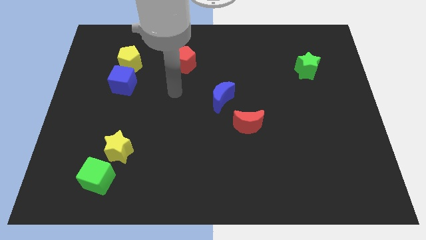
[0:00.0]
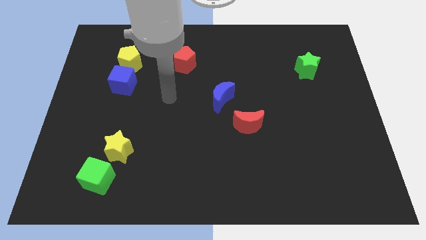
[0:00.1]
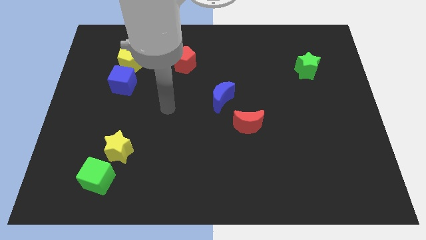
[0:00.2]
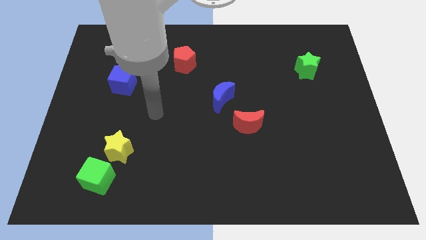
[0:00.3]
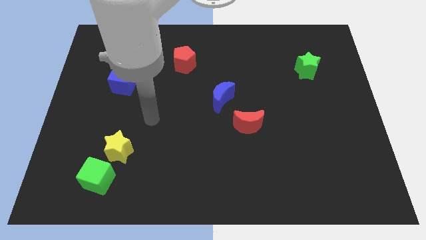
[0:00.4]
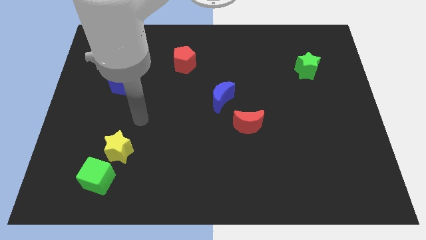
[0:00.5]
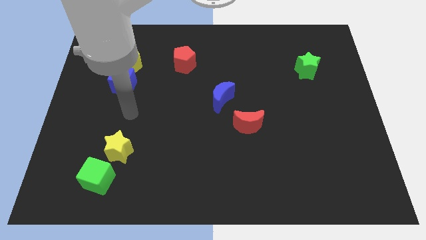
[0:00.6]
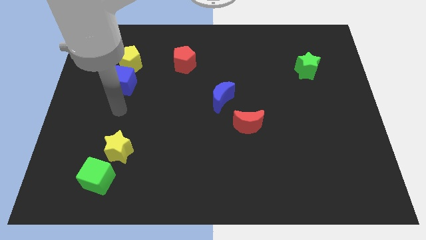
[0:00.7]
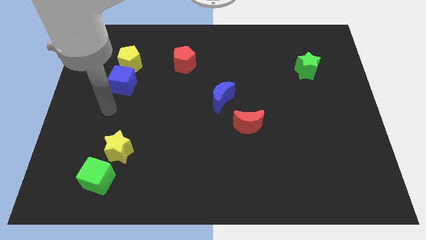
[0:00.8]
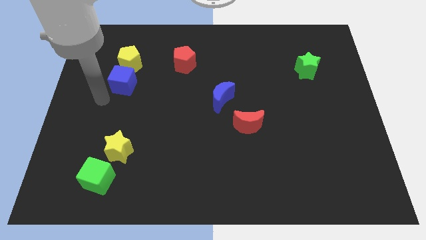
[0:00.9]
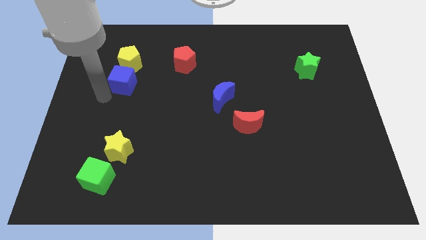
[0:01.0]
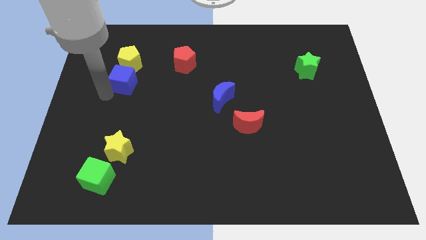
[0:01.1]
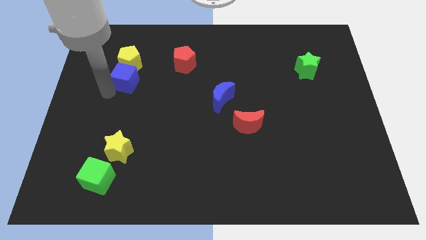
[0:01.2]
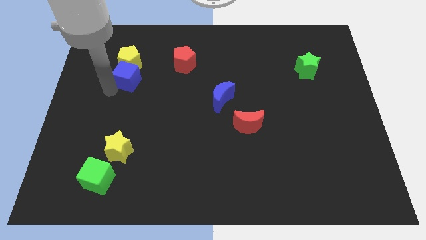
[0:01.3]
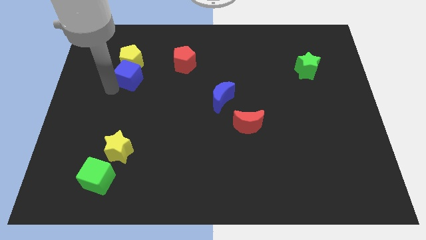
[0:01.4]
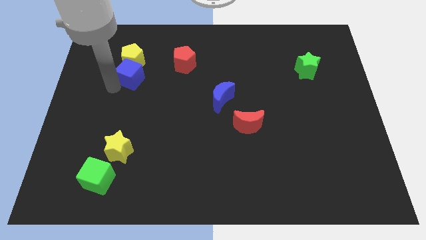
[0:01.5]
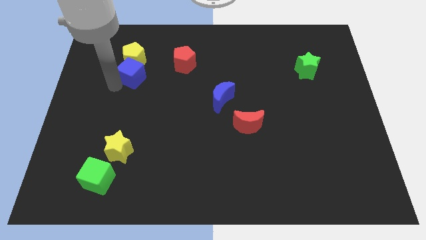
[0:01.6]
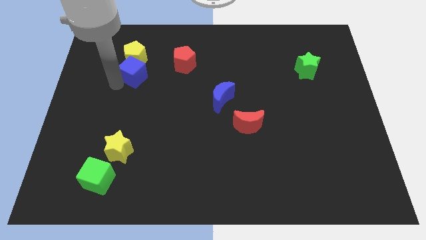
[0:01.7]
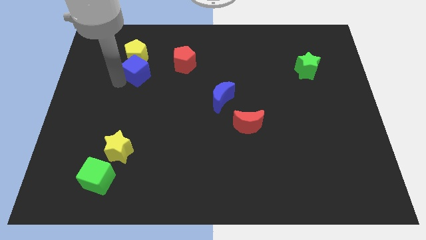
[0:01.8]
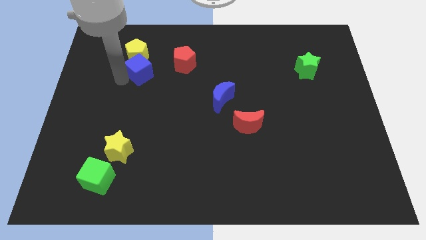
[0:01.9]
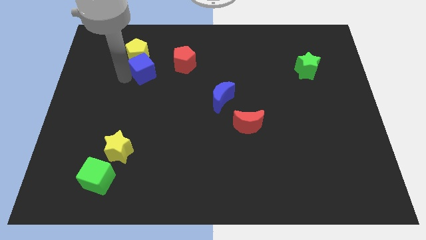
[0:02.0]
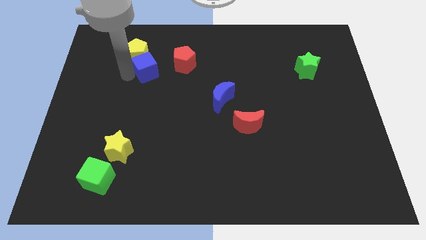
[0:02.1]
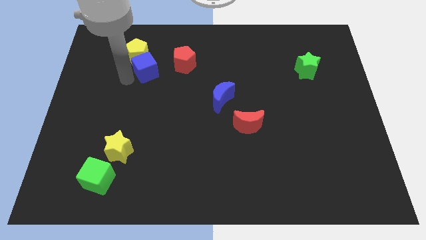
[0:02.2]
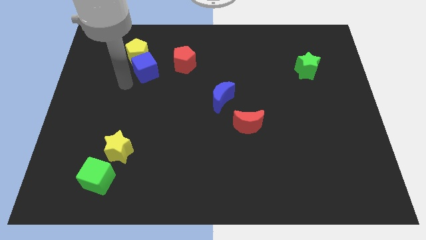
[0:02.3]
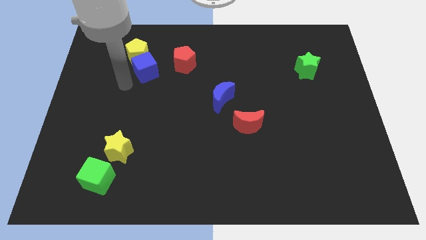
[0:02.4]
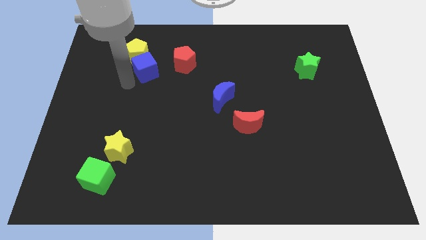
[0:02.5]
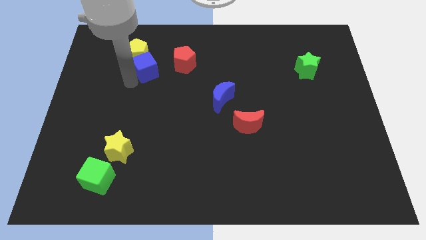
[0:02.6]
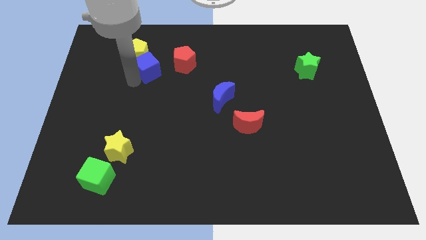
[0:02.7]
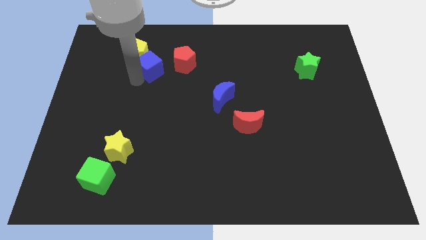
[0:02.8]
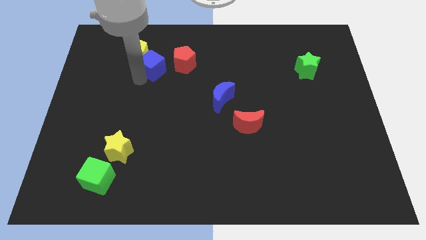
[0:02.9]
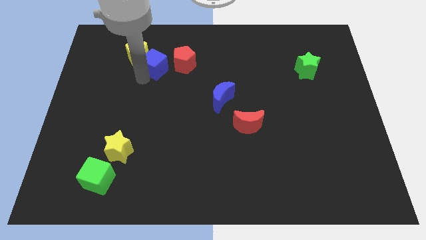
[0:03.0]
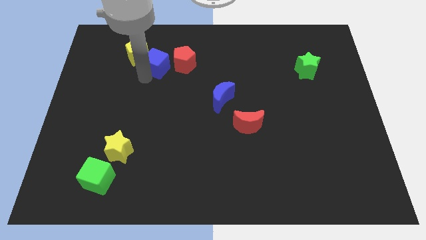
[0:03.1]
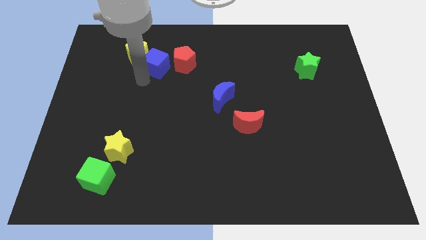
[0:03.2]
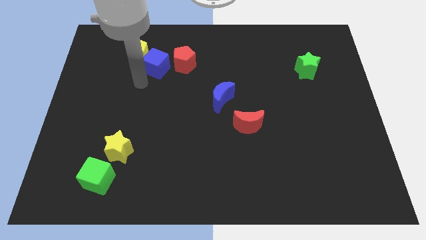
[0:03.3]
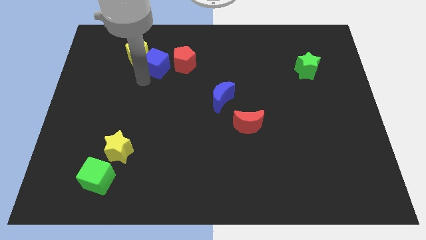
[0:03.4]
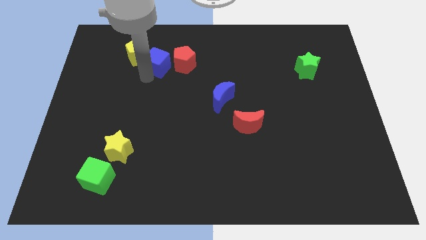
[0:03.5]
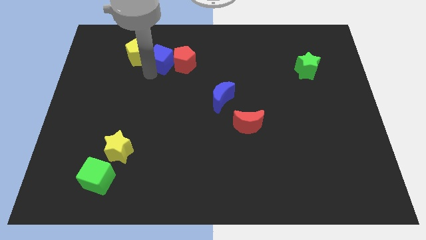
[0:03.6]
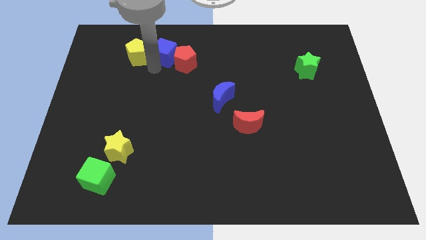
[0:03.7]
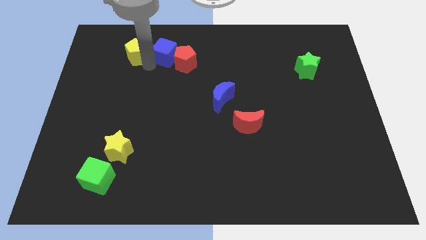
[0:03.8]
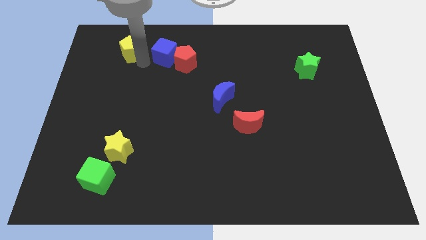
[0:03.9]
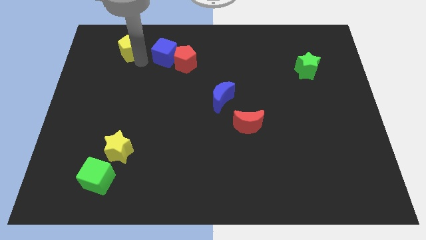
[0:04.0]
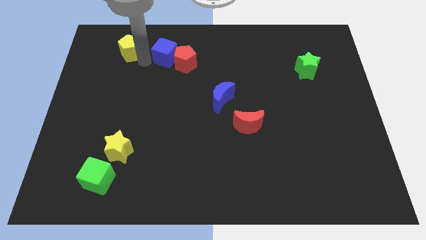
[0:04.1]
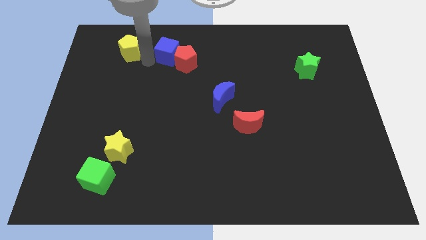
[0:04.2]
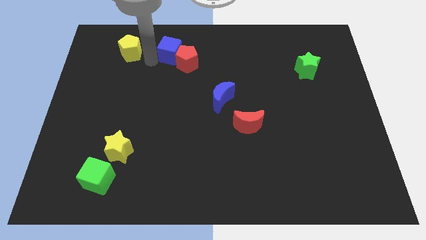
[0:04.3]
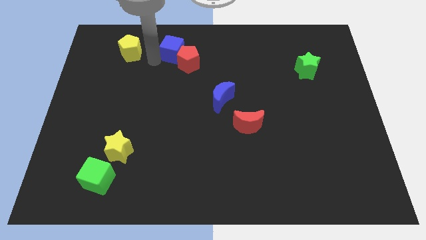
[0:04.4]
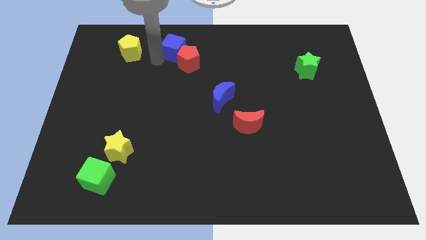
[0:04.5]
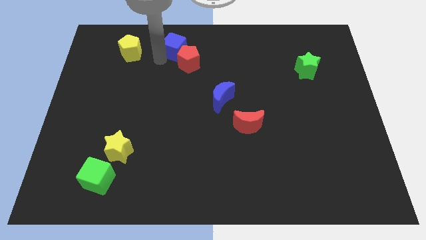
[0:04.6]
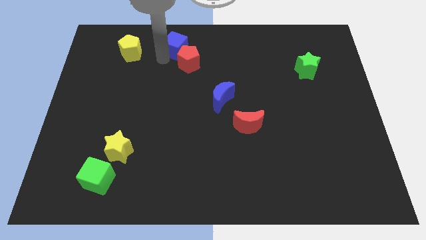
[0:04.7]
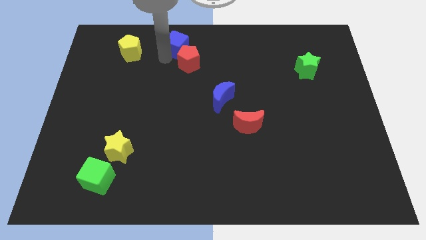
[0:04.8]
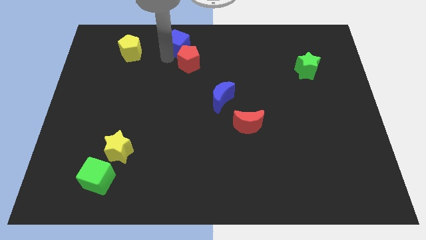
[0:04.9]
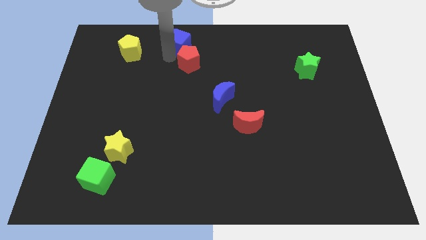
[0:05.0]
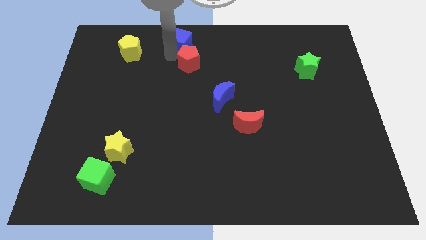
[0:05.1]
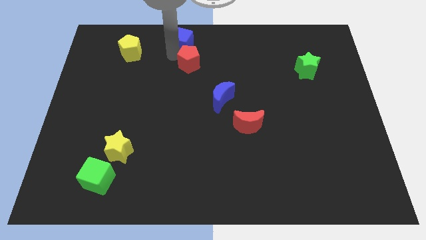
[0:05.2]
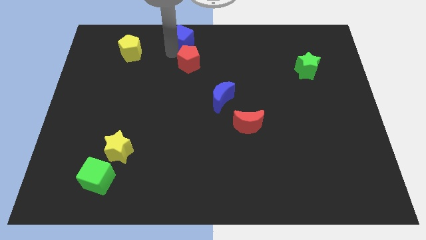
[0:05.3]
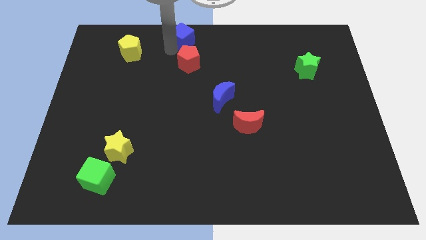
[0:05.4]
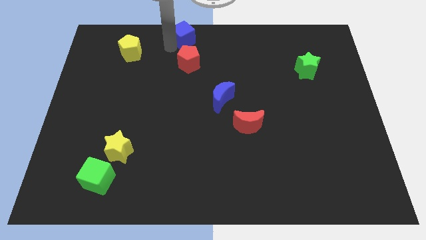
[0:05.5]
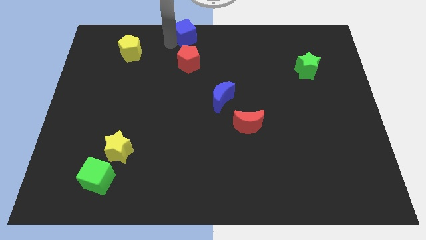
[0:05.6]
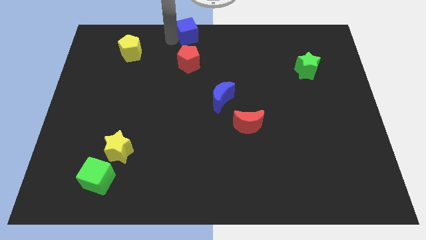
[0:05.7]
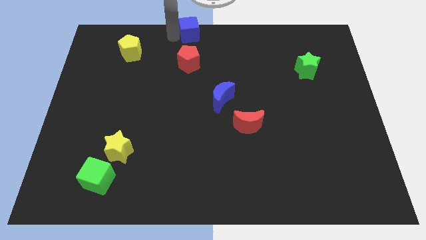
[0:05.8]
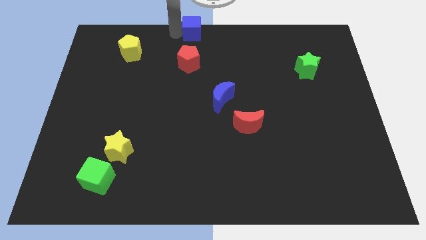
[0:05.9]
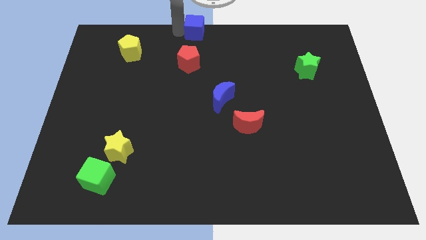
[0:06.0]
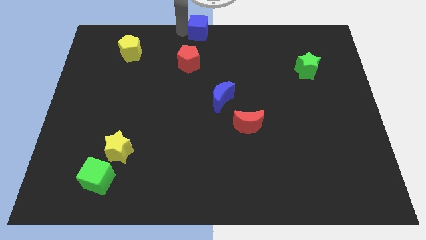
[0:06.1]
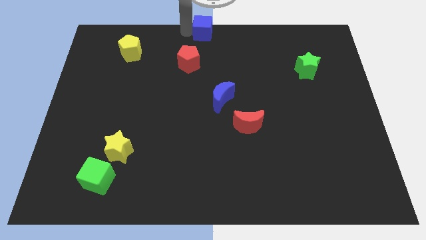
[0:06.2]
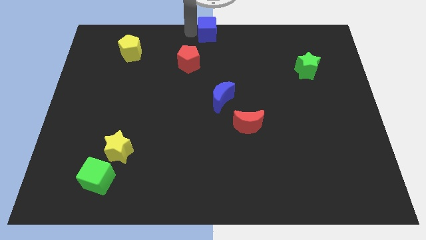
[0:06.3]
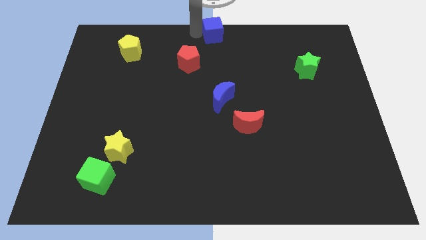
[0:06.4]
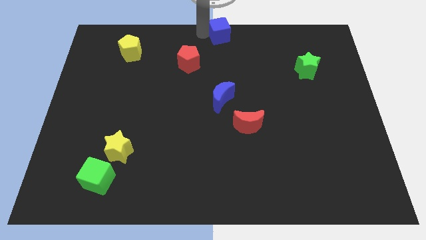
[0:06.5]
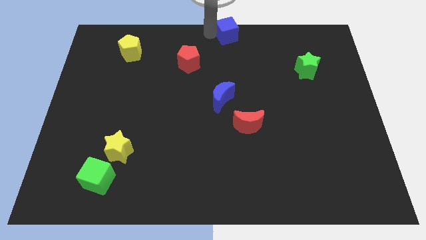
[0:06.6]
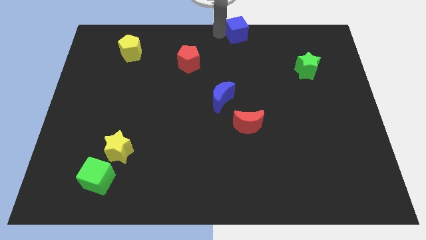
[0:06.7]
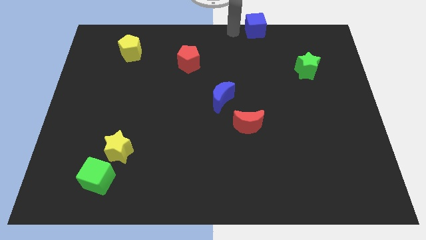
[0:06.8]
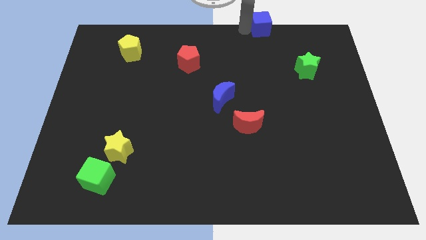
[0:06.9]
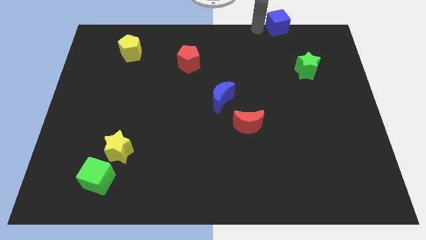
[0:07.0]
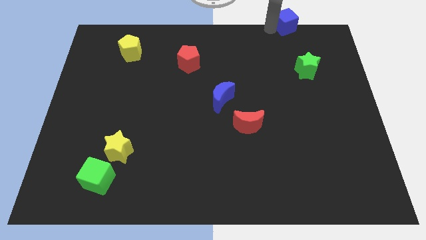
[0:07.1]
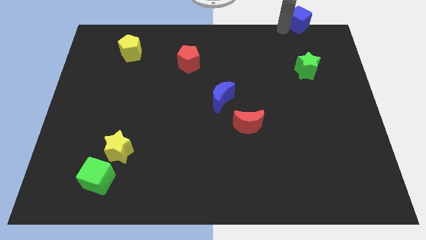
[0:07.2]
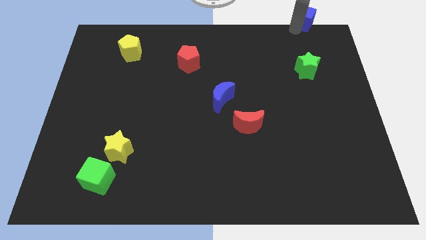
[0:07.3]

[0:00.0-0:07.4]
move the blue cube to the upper right corner
